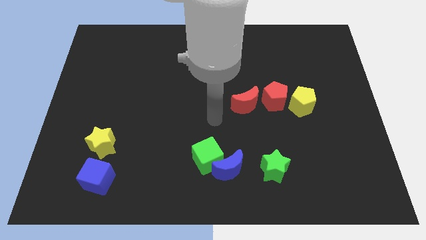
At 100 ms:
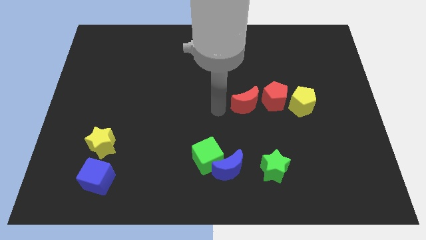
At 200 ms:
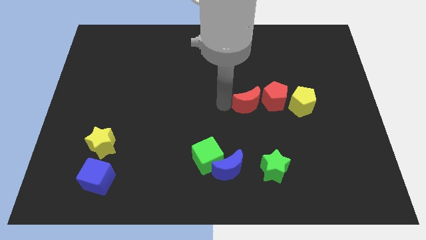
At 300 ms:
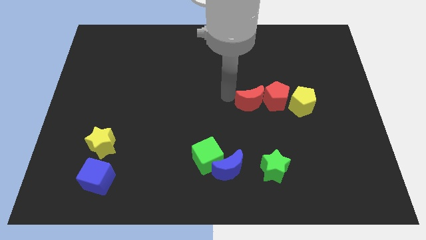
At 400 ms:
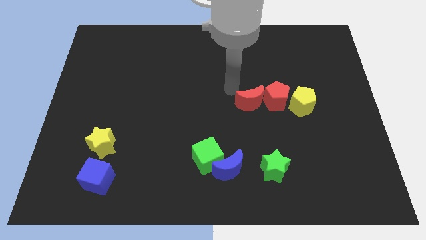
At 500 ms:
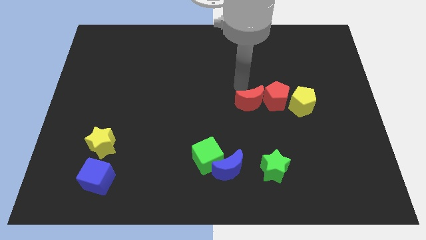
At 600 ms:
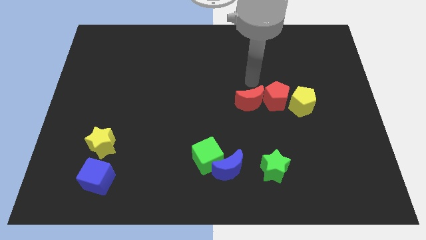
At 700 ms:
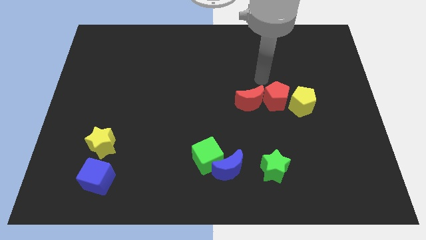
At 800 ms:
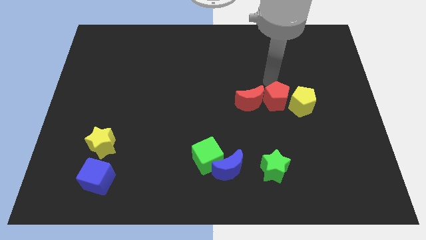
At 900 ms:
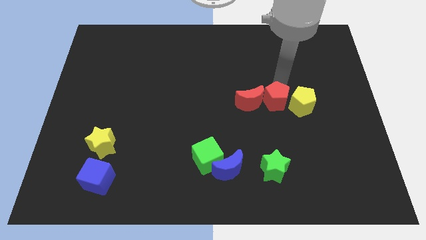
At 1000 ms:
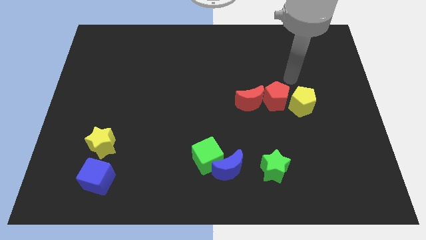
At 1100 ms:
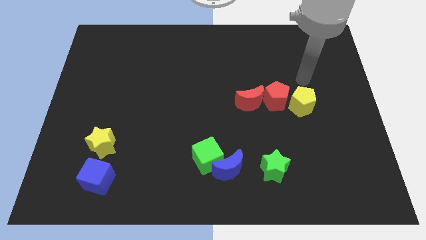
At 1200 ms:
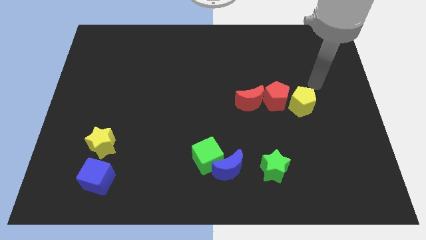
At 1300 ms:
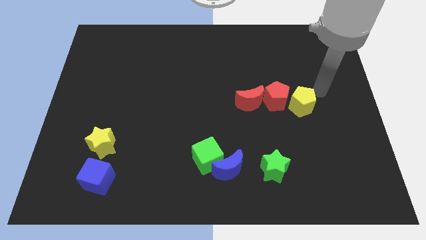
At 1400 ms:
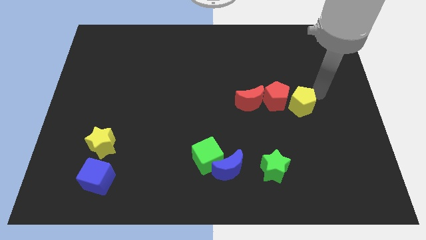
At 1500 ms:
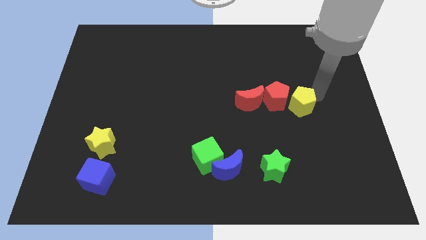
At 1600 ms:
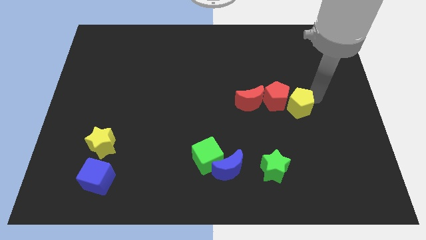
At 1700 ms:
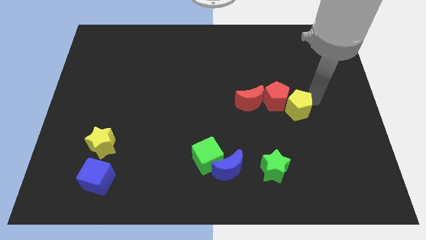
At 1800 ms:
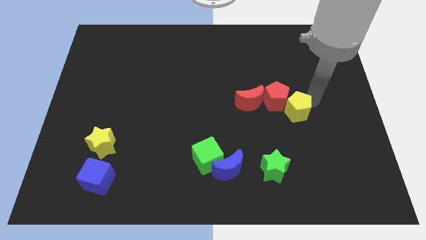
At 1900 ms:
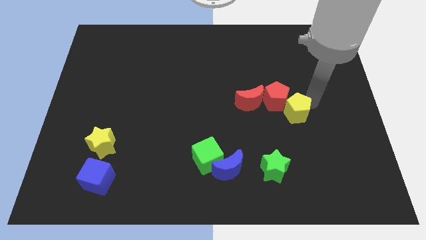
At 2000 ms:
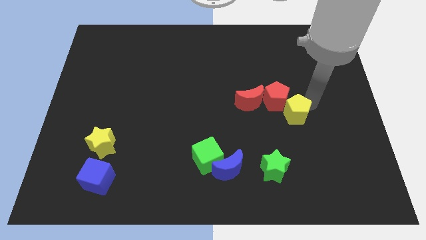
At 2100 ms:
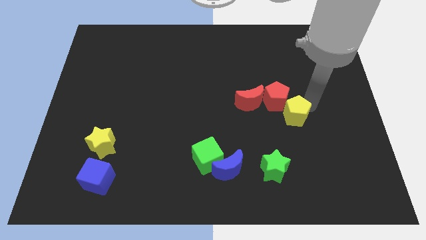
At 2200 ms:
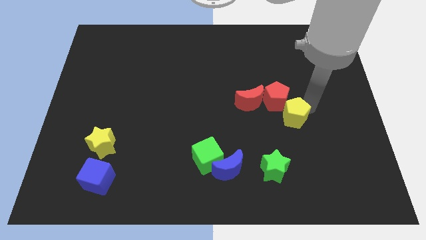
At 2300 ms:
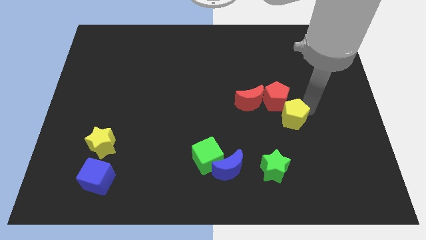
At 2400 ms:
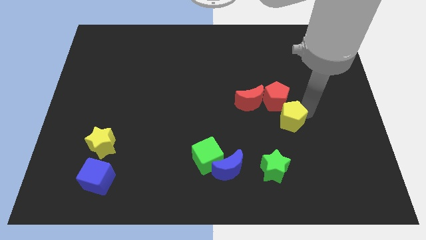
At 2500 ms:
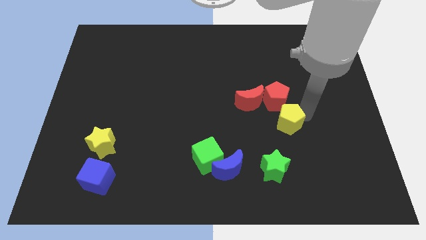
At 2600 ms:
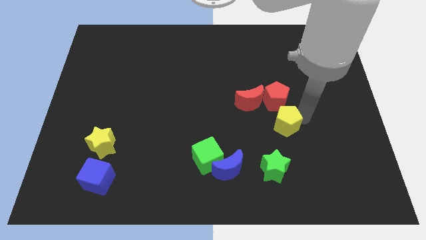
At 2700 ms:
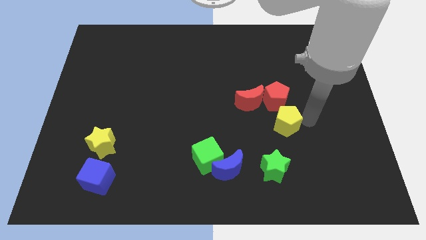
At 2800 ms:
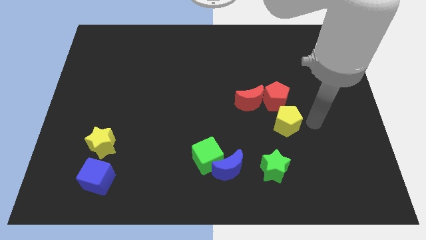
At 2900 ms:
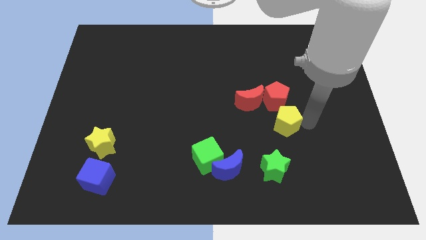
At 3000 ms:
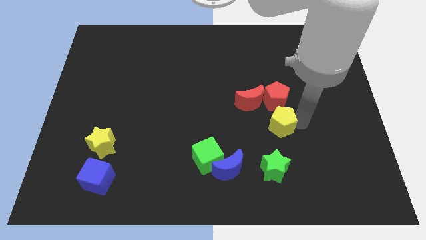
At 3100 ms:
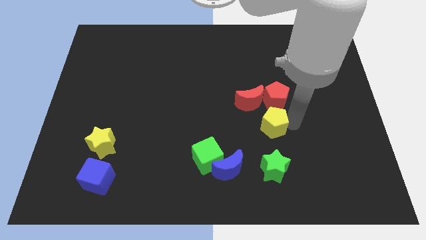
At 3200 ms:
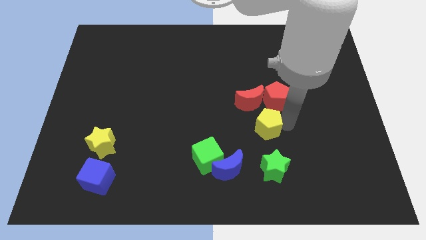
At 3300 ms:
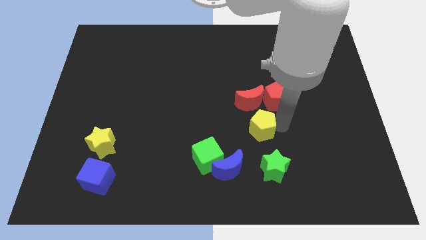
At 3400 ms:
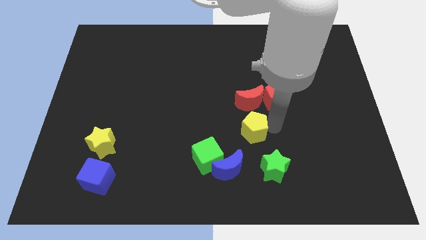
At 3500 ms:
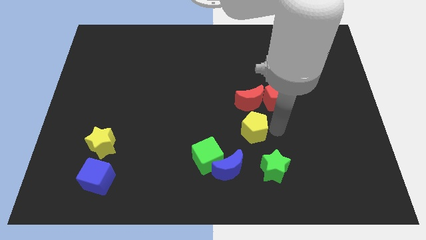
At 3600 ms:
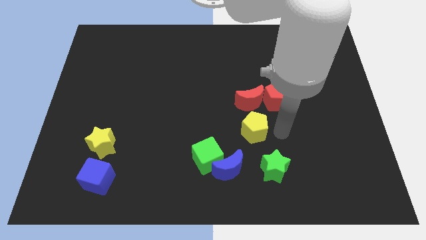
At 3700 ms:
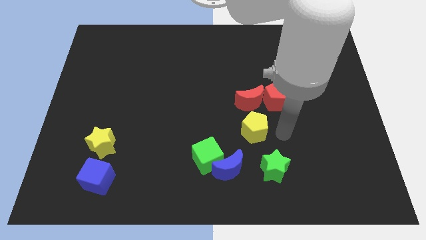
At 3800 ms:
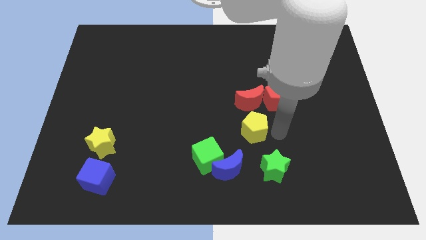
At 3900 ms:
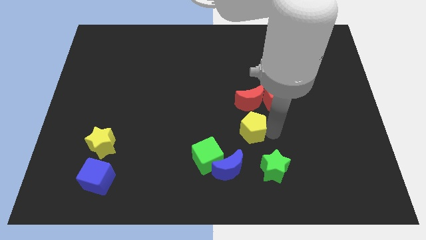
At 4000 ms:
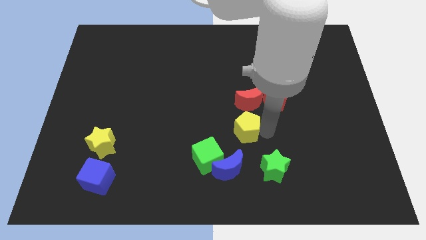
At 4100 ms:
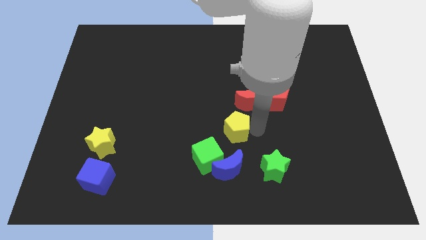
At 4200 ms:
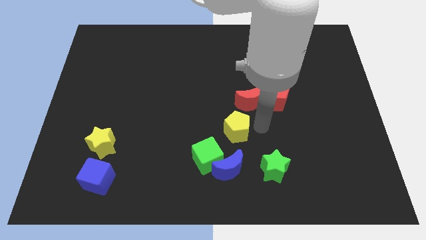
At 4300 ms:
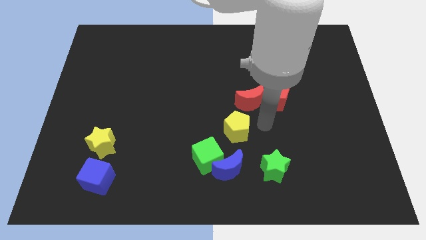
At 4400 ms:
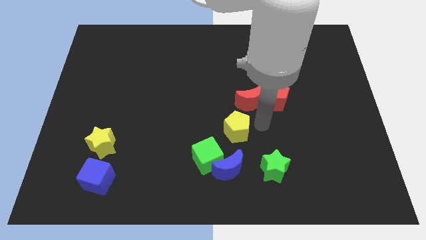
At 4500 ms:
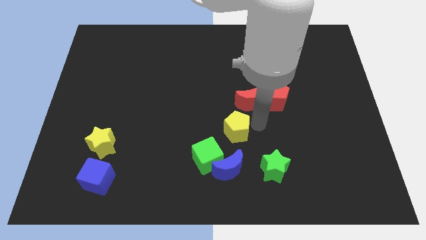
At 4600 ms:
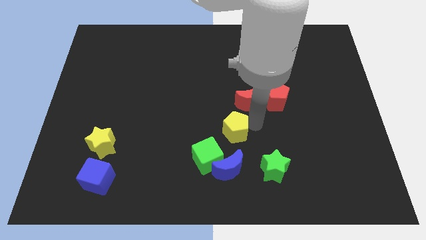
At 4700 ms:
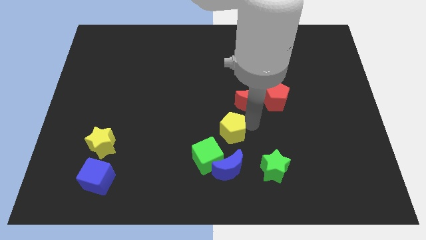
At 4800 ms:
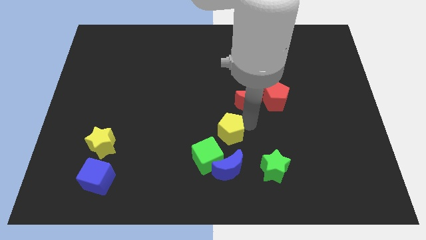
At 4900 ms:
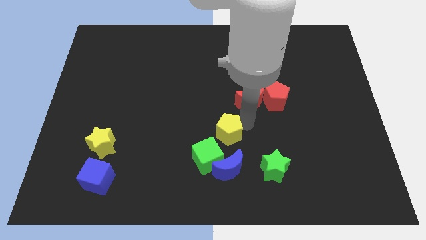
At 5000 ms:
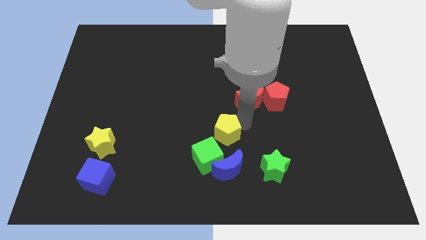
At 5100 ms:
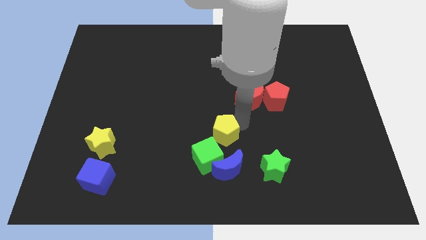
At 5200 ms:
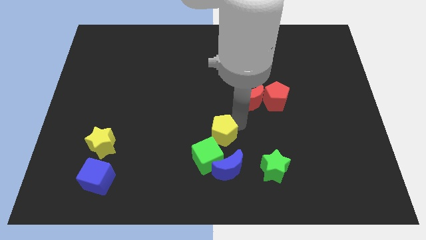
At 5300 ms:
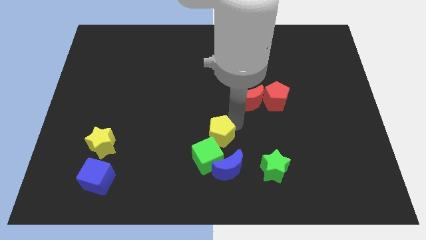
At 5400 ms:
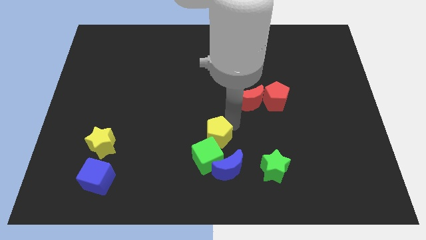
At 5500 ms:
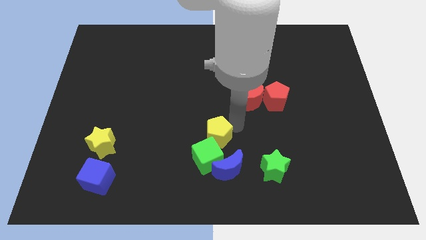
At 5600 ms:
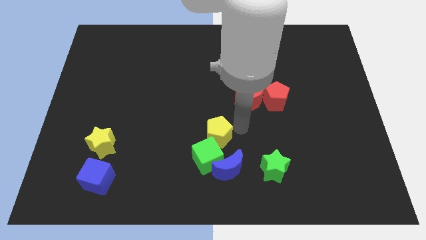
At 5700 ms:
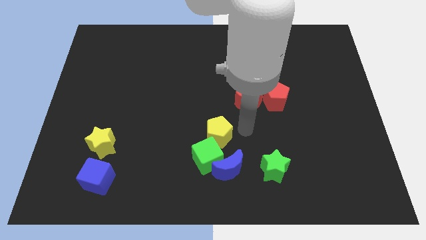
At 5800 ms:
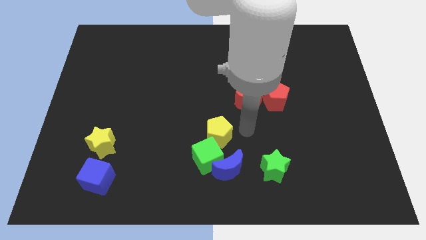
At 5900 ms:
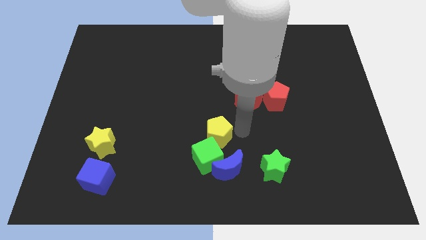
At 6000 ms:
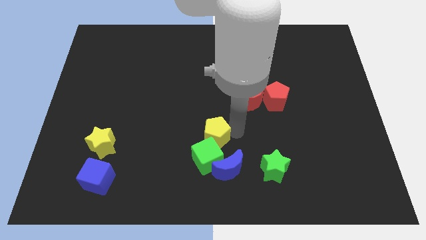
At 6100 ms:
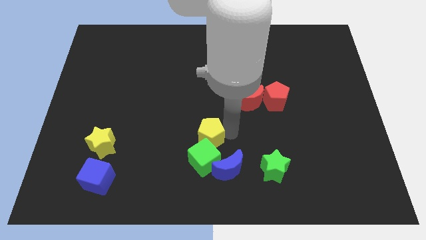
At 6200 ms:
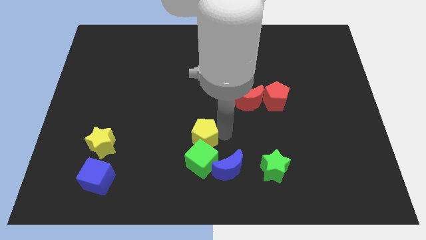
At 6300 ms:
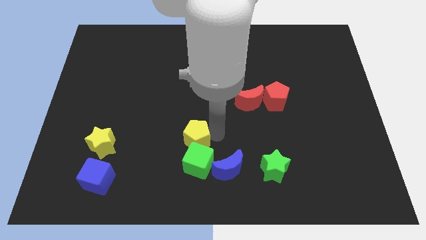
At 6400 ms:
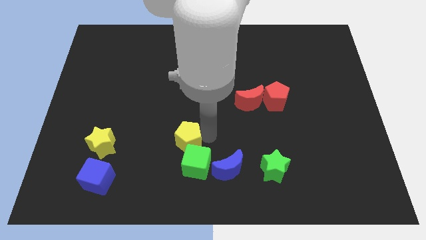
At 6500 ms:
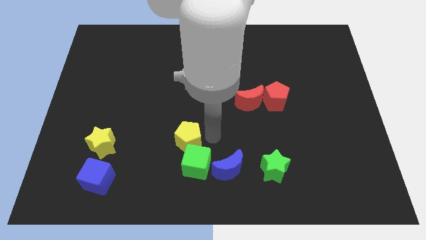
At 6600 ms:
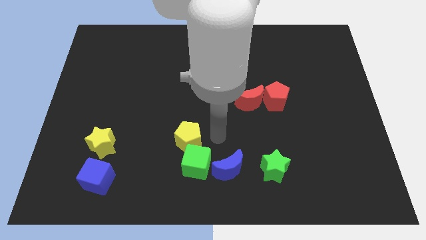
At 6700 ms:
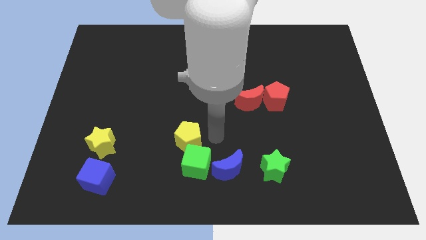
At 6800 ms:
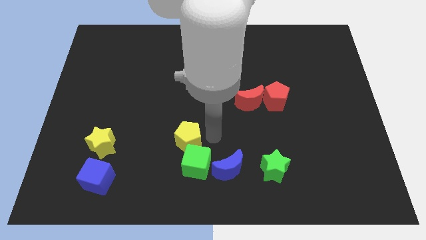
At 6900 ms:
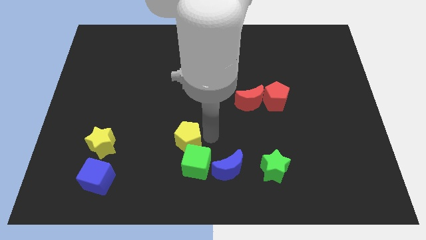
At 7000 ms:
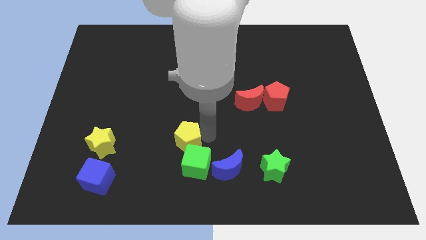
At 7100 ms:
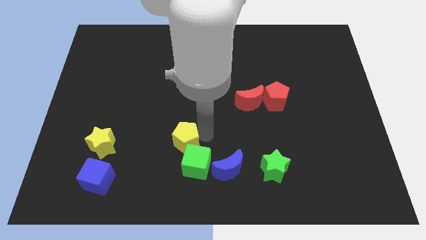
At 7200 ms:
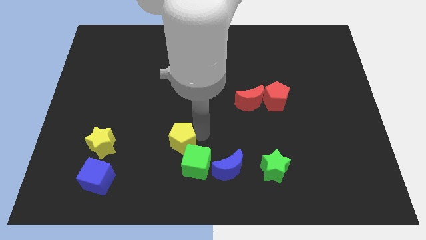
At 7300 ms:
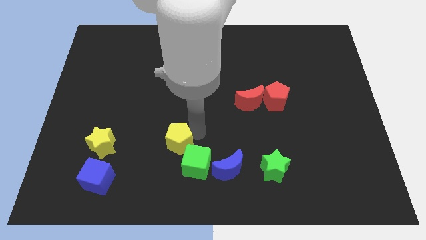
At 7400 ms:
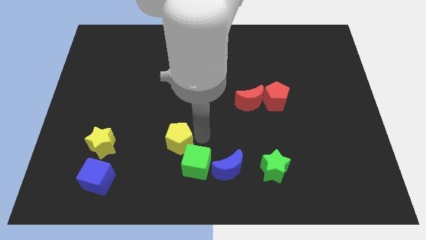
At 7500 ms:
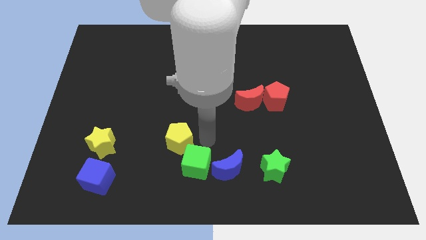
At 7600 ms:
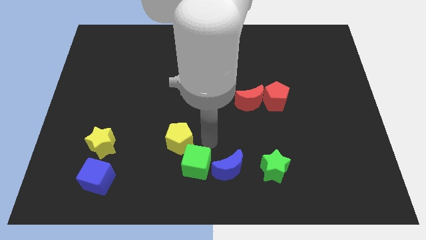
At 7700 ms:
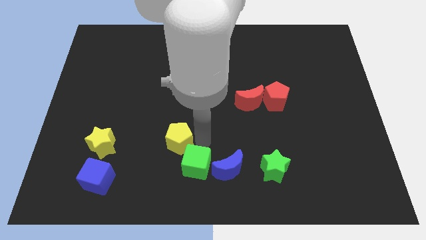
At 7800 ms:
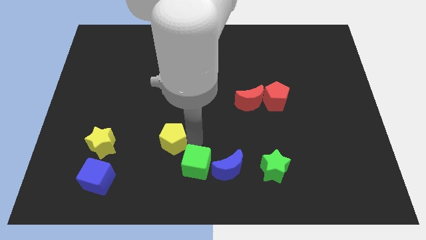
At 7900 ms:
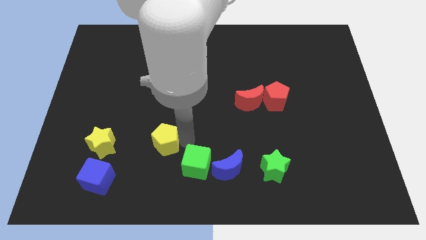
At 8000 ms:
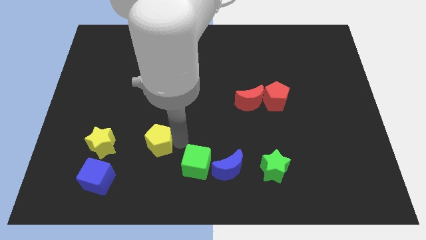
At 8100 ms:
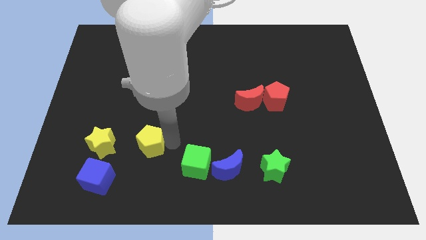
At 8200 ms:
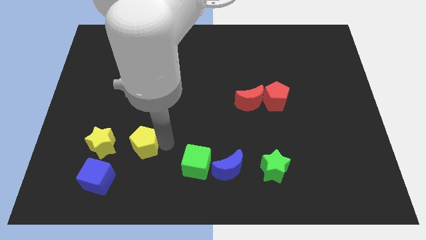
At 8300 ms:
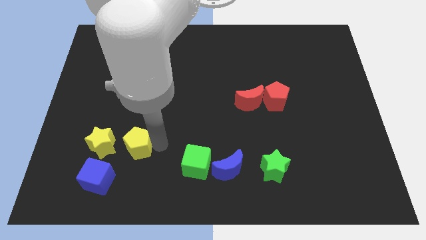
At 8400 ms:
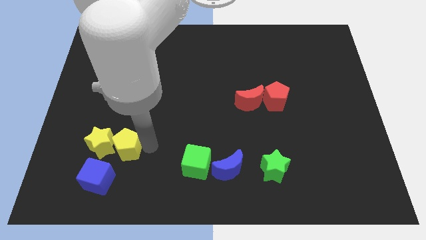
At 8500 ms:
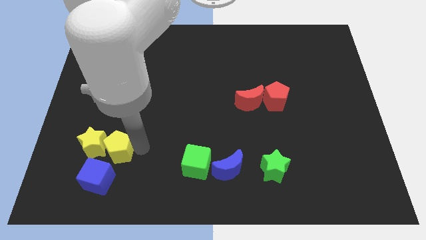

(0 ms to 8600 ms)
slide the yellow pentagon to the top of the blue cube
